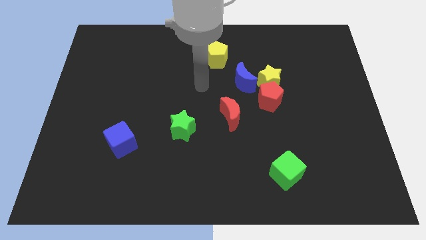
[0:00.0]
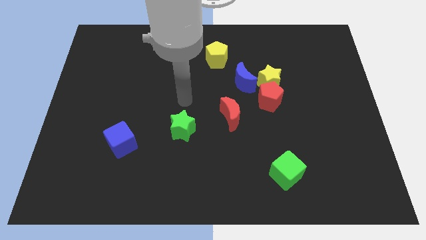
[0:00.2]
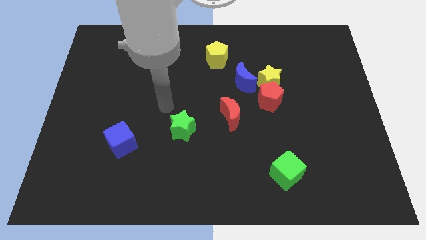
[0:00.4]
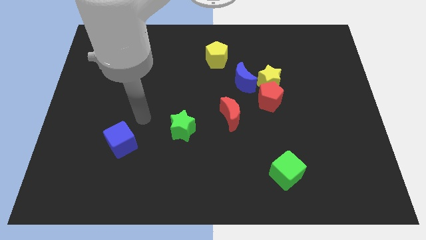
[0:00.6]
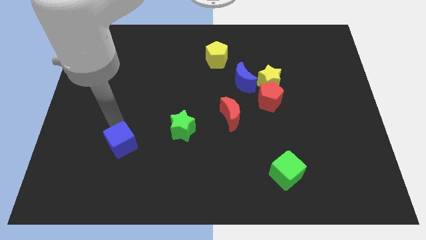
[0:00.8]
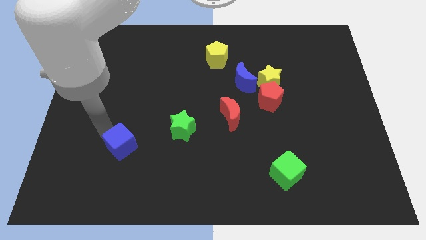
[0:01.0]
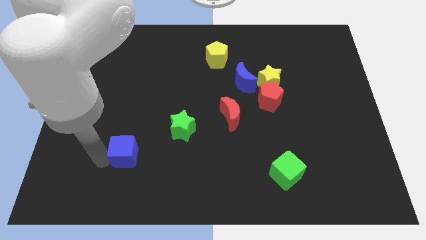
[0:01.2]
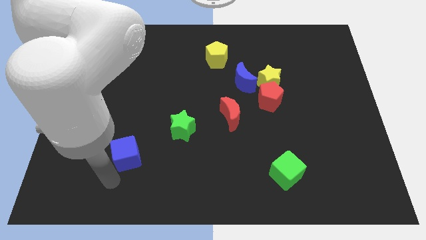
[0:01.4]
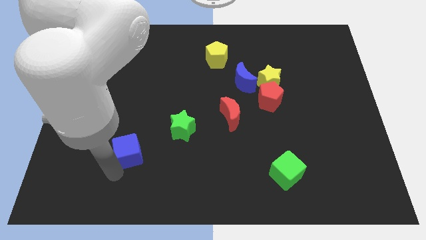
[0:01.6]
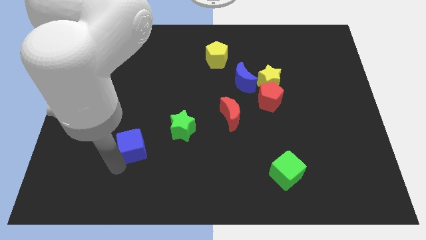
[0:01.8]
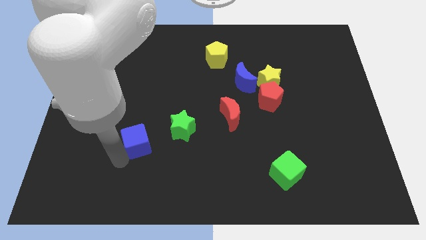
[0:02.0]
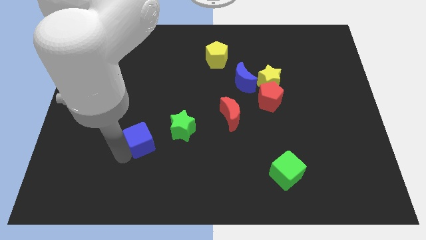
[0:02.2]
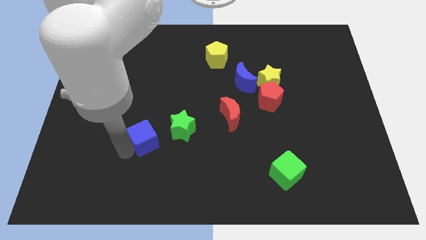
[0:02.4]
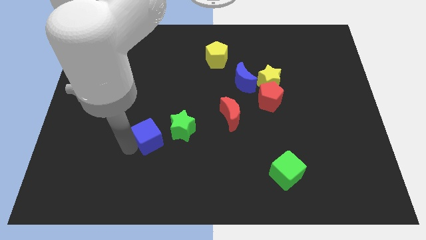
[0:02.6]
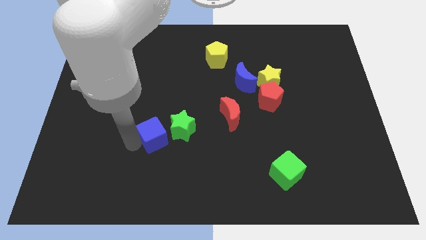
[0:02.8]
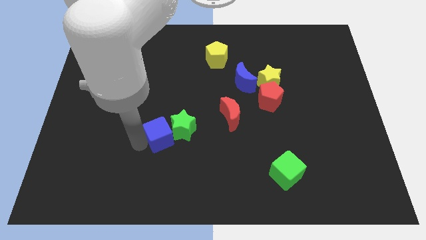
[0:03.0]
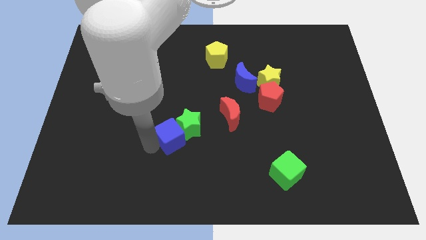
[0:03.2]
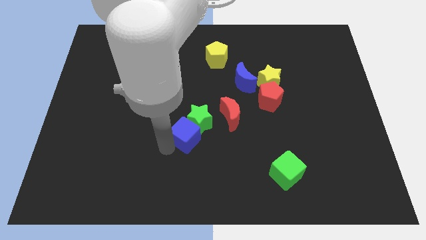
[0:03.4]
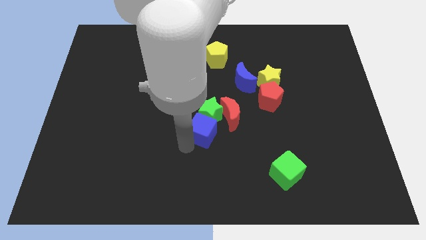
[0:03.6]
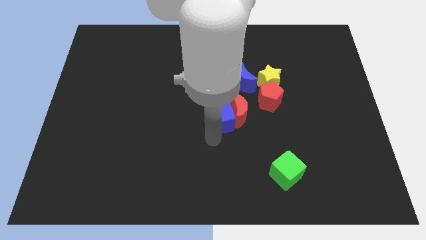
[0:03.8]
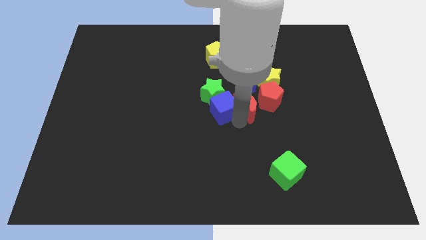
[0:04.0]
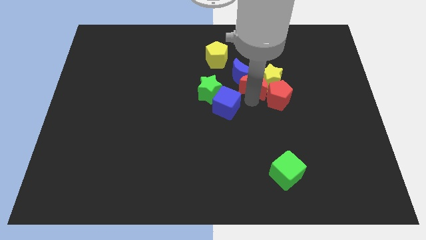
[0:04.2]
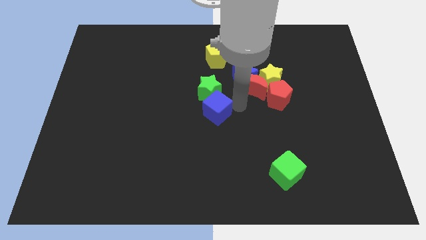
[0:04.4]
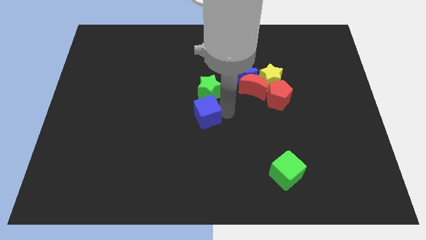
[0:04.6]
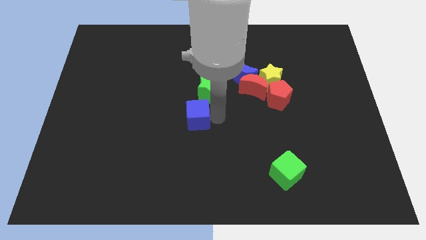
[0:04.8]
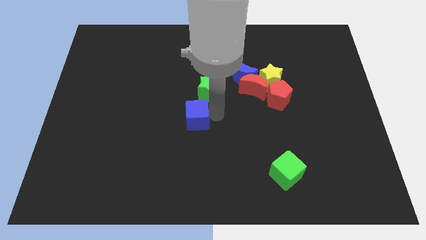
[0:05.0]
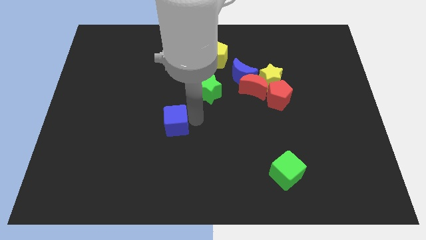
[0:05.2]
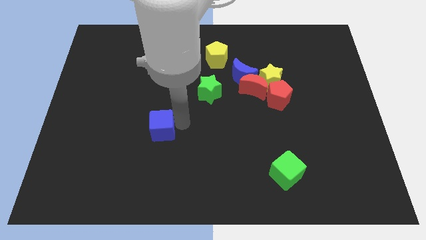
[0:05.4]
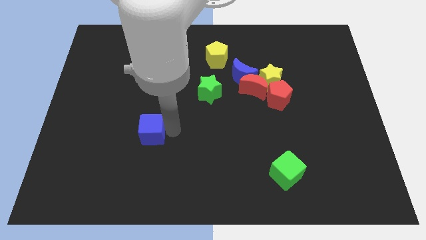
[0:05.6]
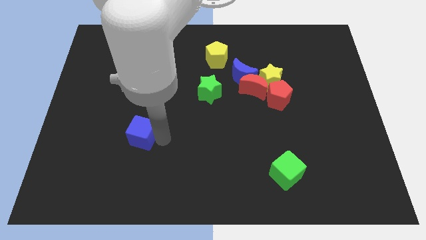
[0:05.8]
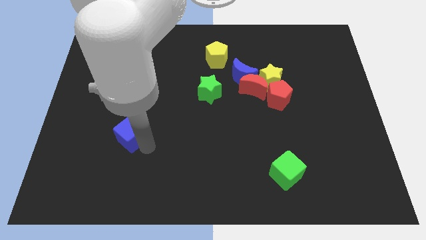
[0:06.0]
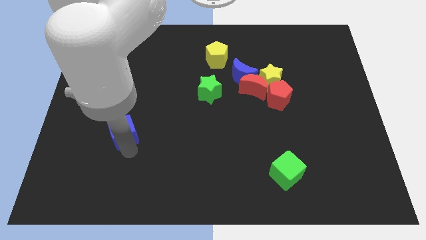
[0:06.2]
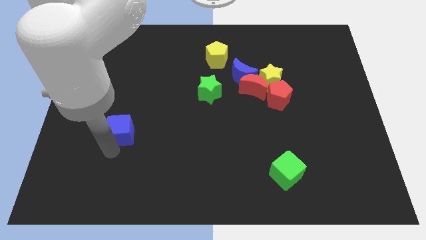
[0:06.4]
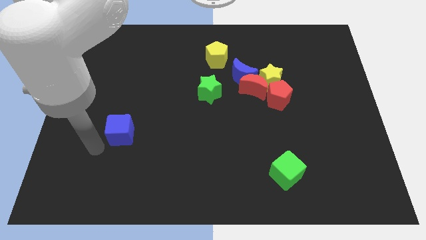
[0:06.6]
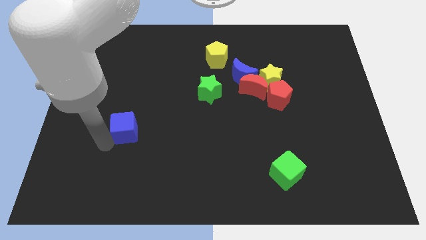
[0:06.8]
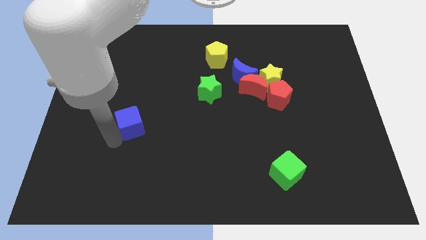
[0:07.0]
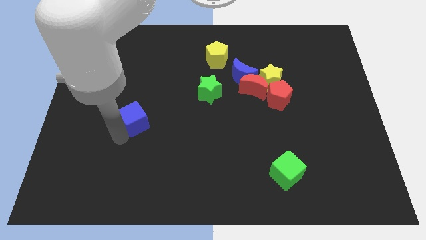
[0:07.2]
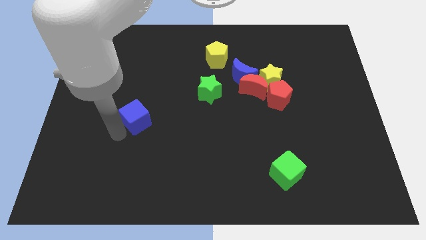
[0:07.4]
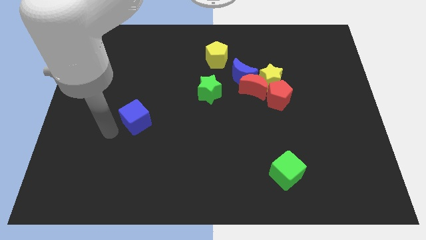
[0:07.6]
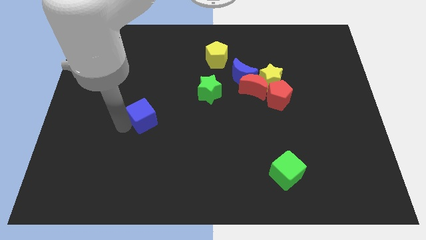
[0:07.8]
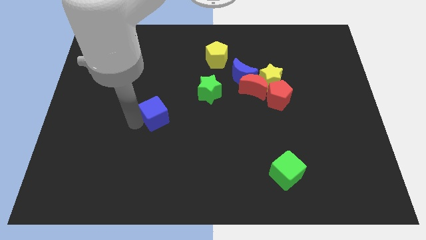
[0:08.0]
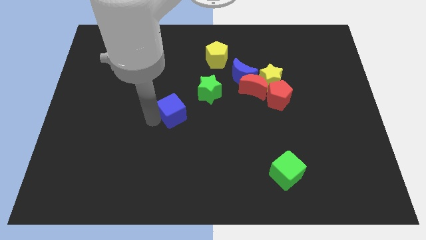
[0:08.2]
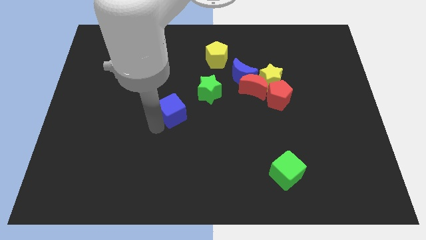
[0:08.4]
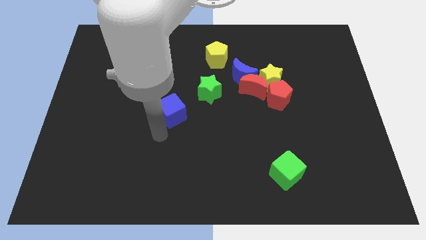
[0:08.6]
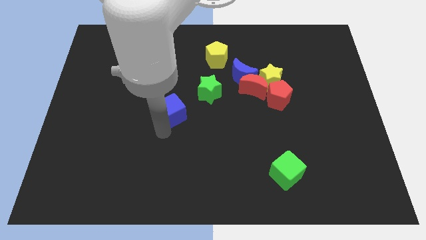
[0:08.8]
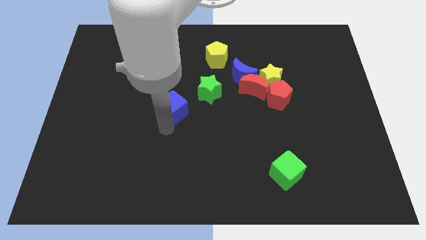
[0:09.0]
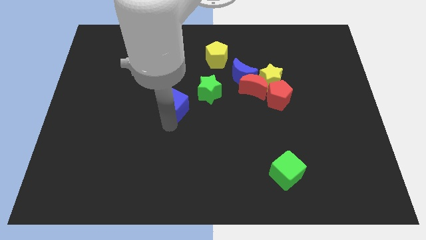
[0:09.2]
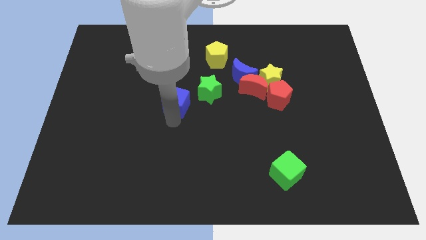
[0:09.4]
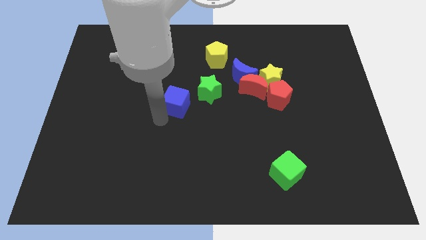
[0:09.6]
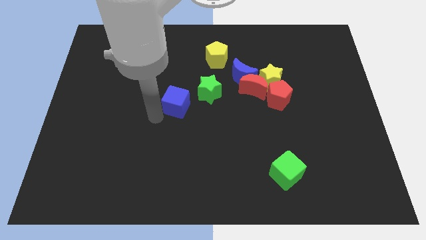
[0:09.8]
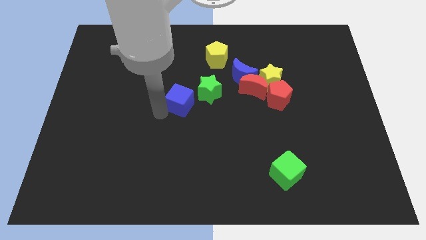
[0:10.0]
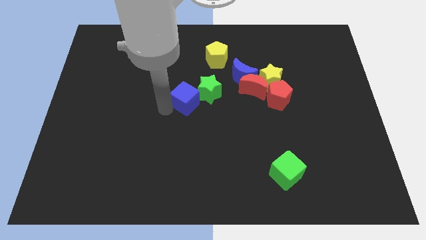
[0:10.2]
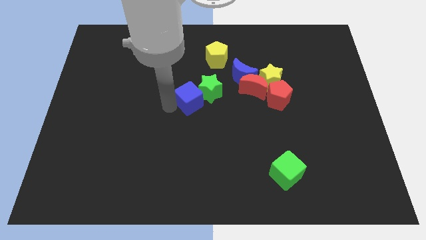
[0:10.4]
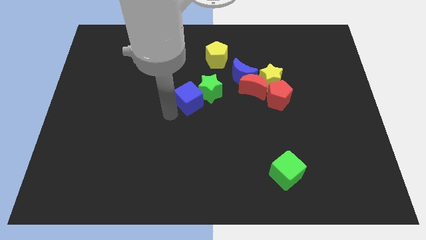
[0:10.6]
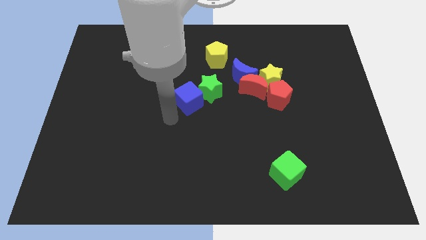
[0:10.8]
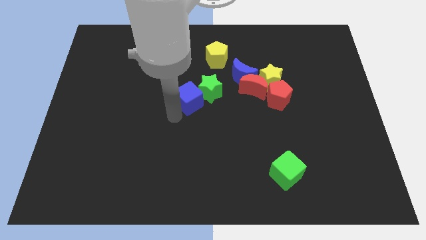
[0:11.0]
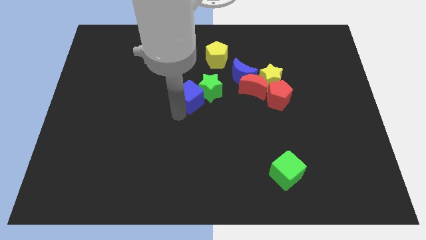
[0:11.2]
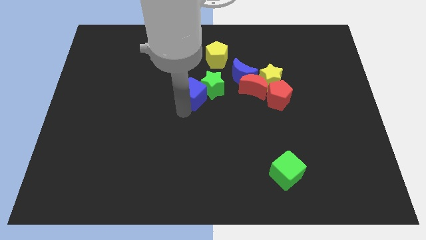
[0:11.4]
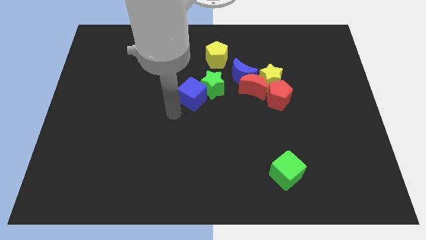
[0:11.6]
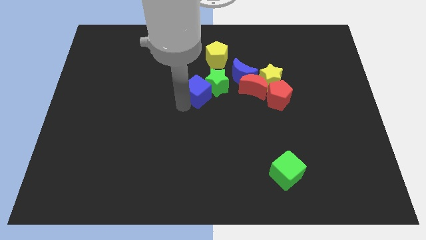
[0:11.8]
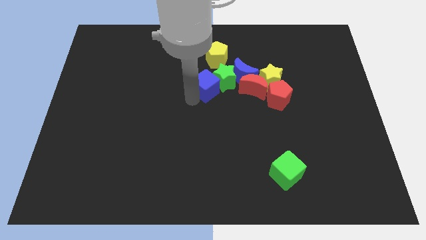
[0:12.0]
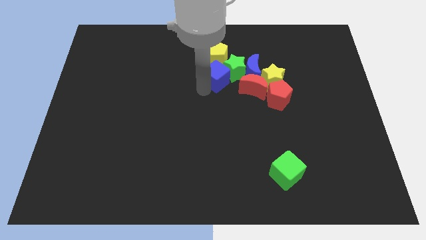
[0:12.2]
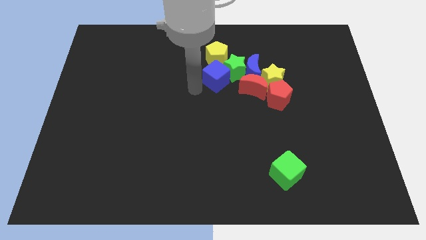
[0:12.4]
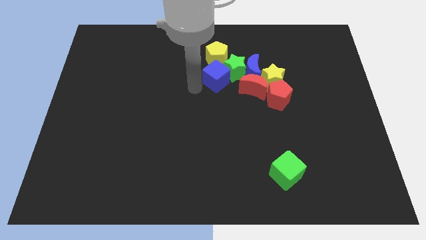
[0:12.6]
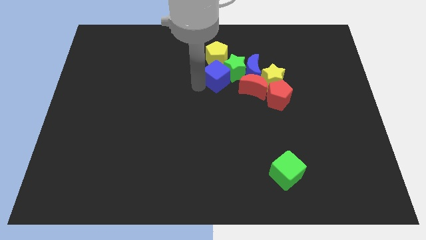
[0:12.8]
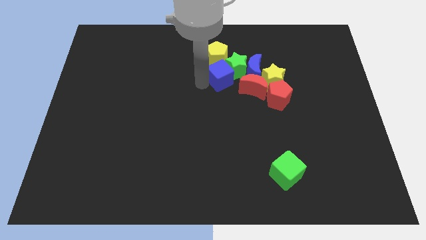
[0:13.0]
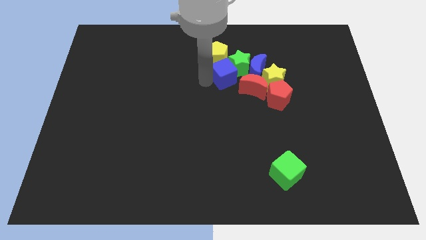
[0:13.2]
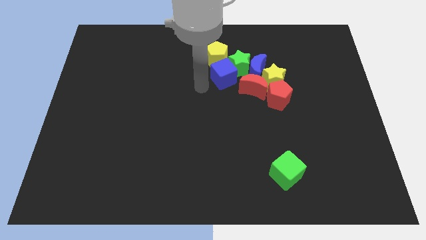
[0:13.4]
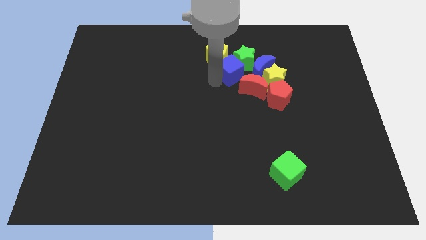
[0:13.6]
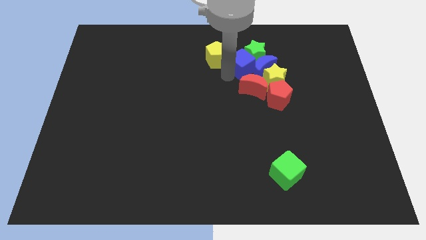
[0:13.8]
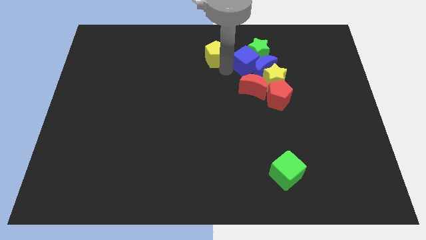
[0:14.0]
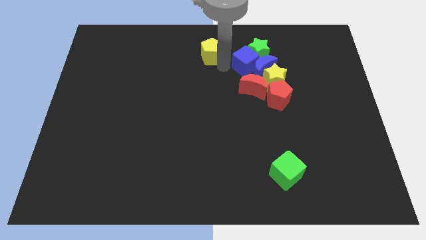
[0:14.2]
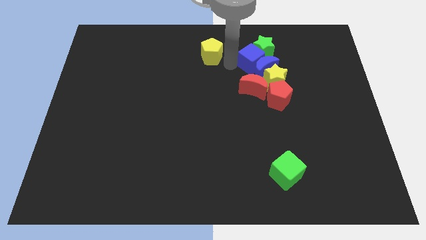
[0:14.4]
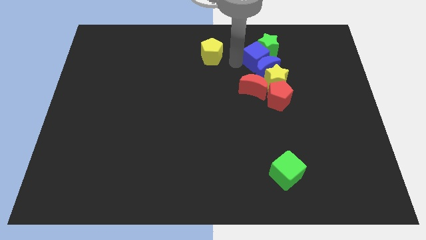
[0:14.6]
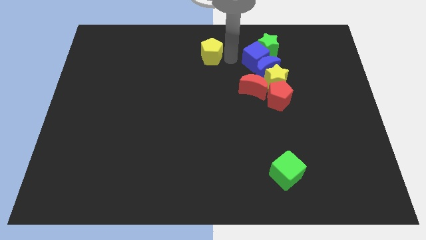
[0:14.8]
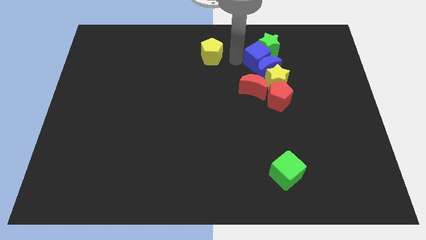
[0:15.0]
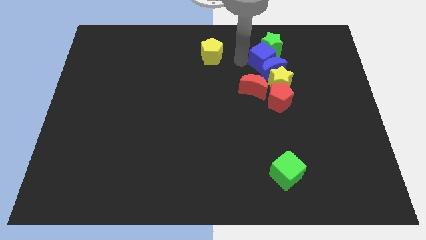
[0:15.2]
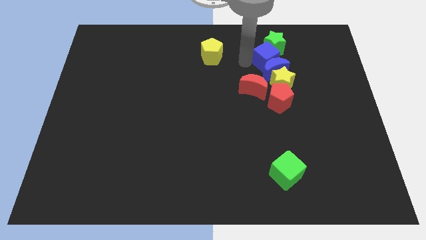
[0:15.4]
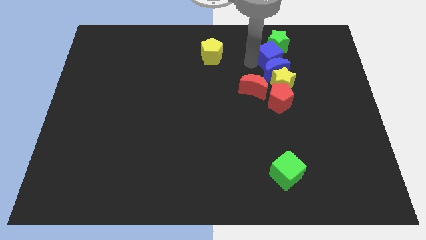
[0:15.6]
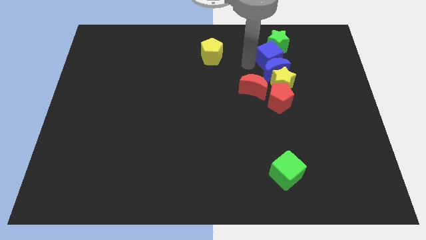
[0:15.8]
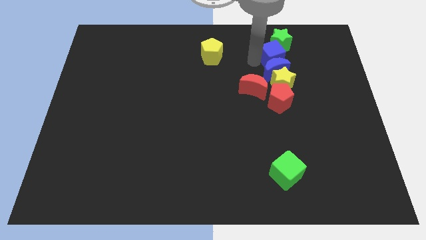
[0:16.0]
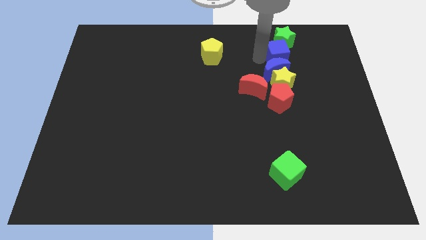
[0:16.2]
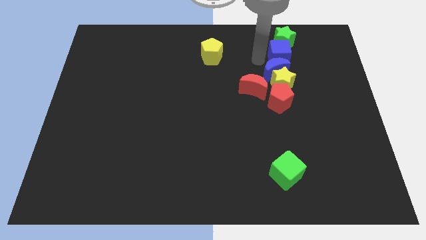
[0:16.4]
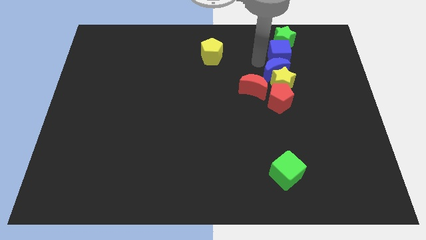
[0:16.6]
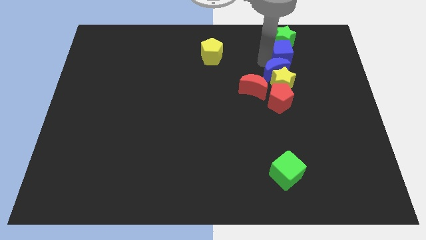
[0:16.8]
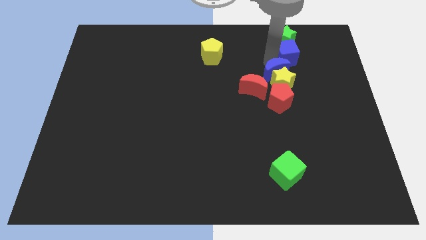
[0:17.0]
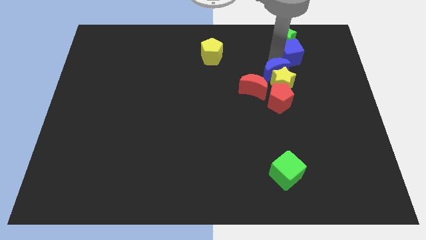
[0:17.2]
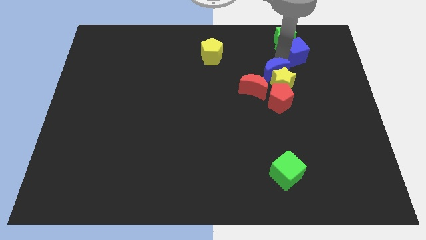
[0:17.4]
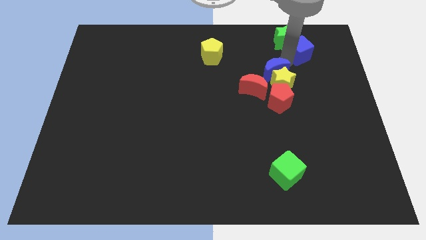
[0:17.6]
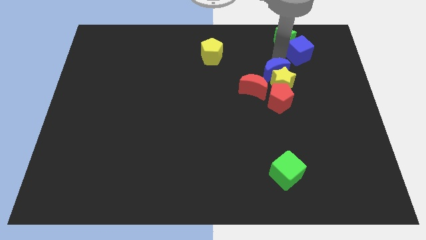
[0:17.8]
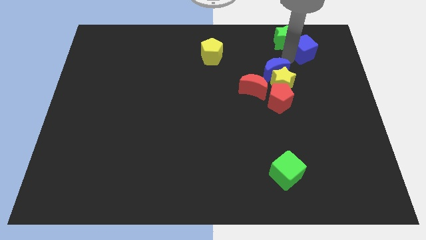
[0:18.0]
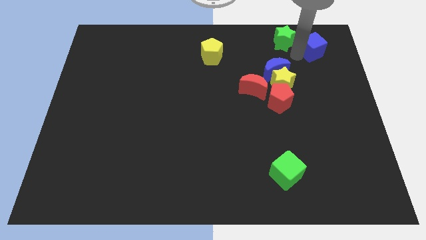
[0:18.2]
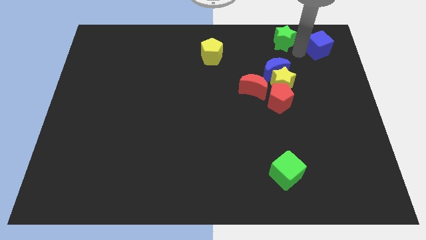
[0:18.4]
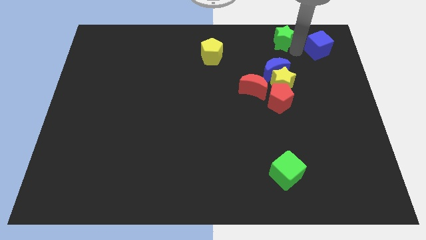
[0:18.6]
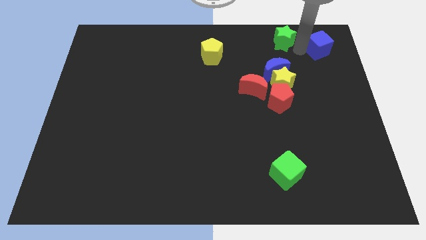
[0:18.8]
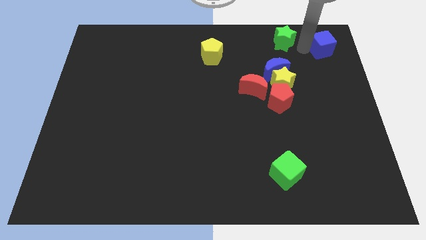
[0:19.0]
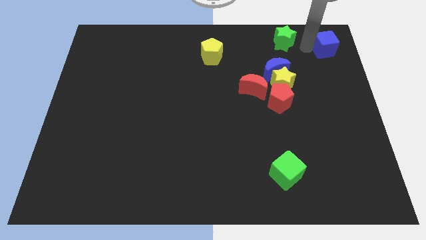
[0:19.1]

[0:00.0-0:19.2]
push the blue cube to the upper right corner
